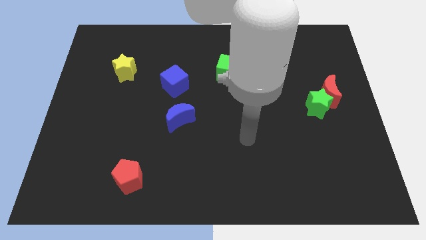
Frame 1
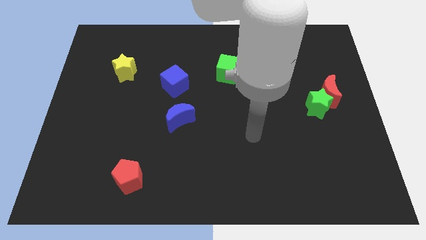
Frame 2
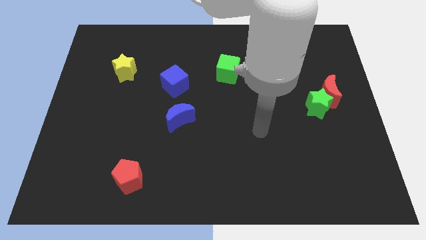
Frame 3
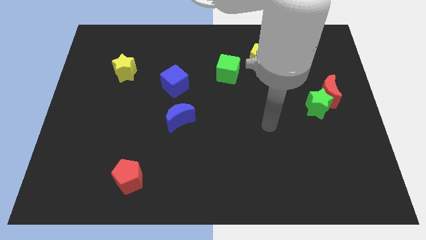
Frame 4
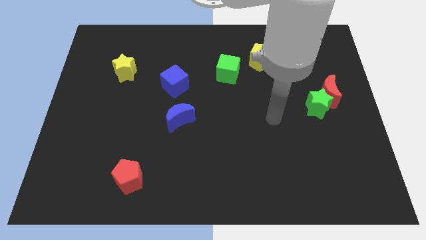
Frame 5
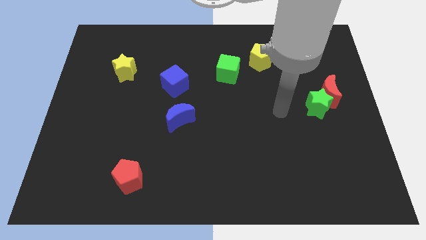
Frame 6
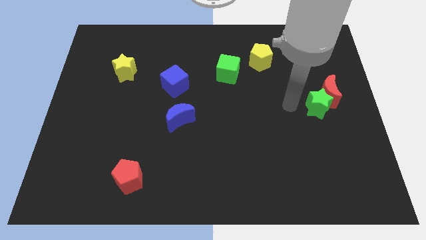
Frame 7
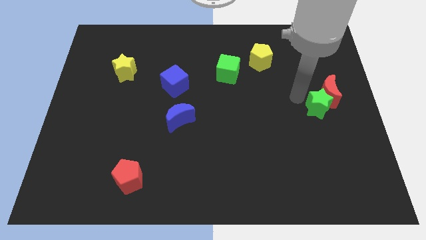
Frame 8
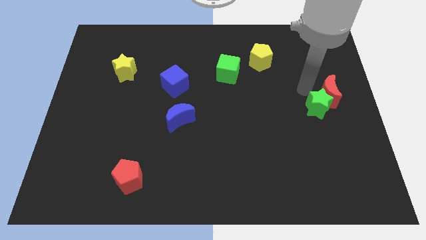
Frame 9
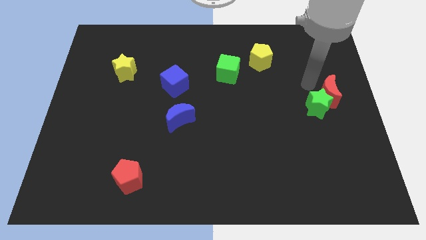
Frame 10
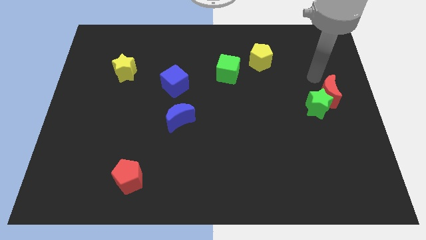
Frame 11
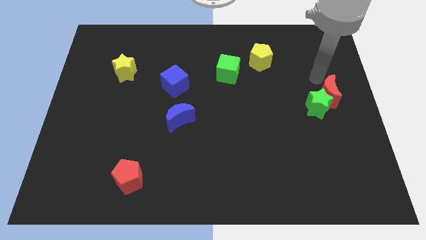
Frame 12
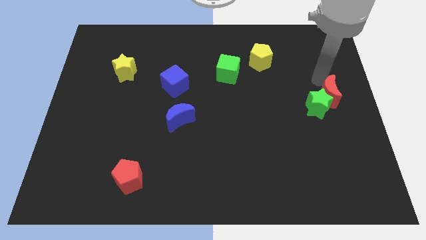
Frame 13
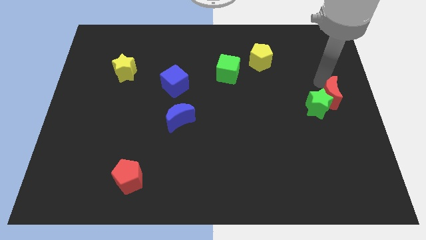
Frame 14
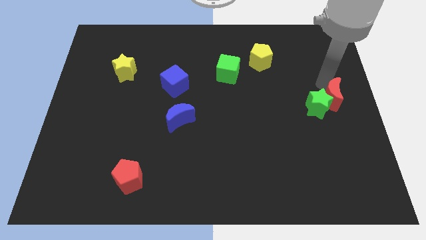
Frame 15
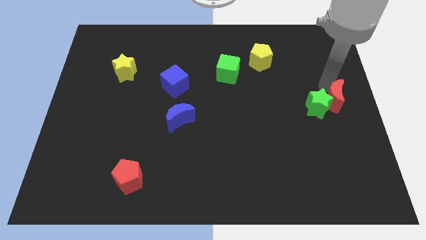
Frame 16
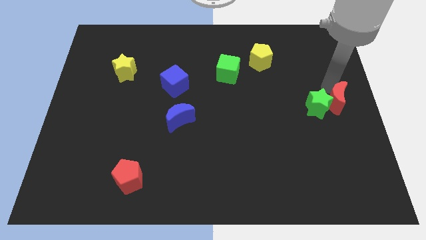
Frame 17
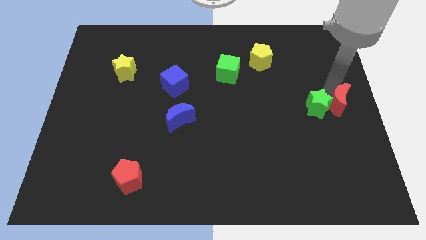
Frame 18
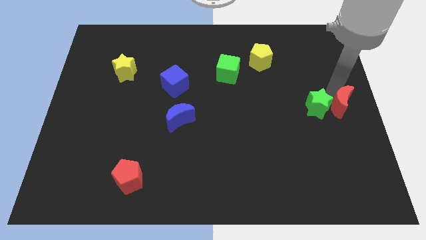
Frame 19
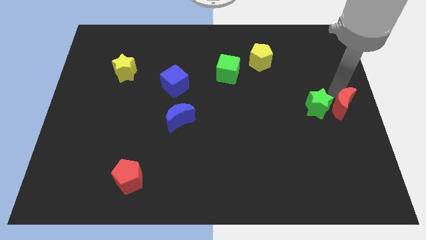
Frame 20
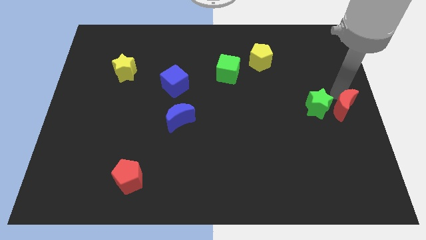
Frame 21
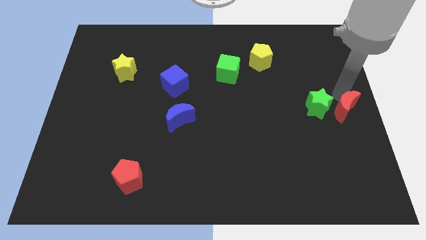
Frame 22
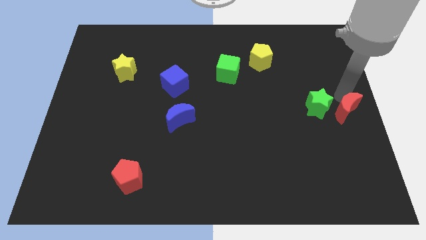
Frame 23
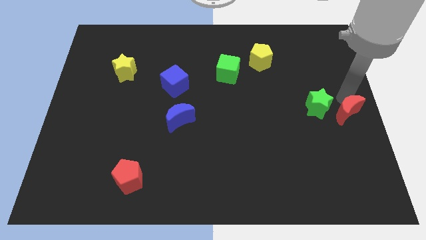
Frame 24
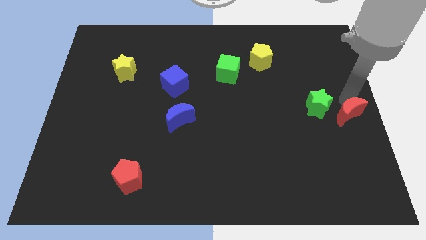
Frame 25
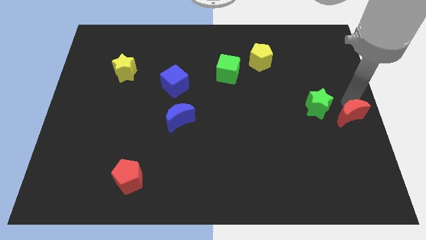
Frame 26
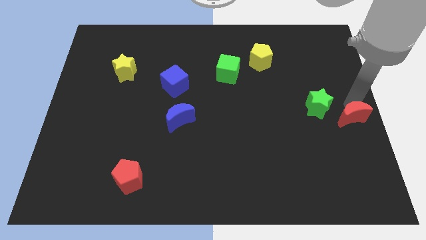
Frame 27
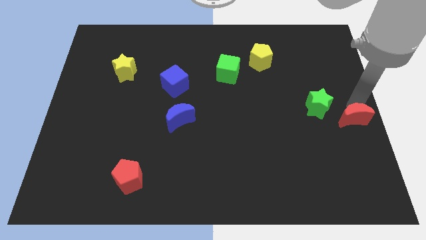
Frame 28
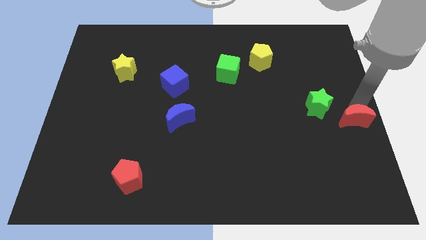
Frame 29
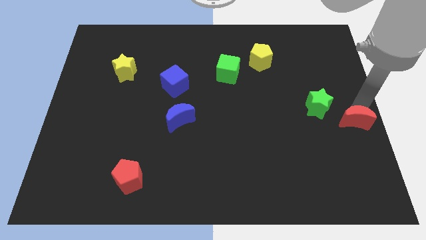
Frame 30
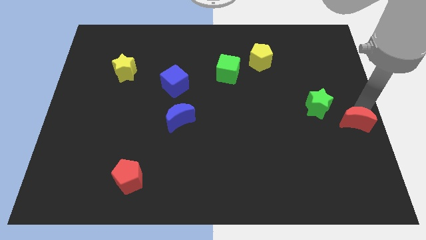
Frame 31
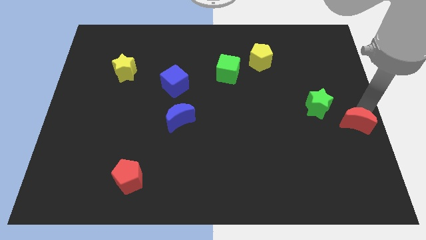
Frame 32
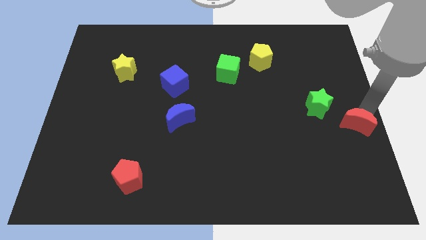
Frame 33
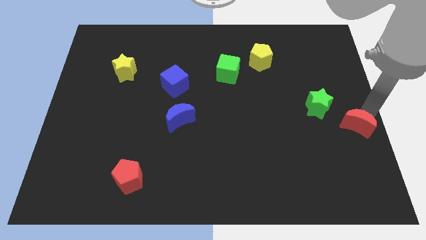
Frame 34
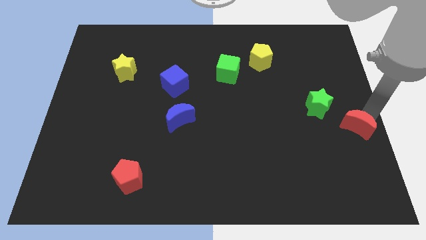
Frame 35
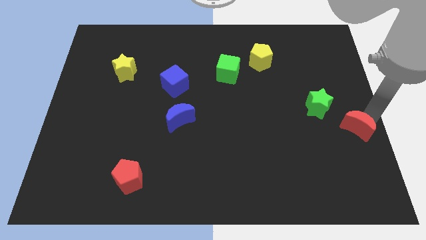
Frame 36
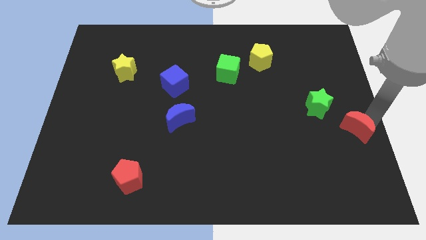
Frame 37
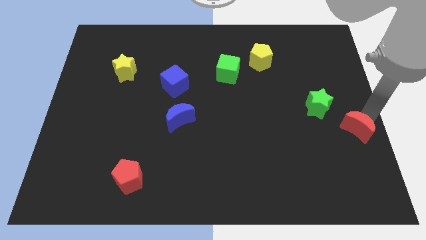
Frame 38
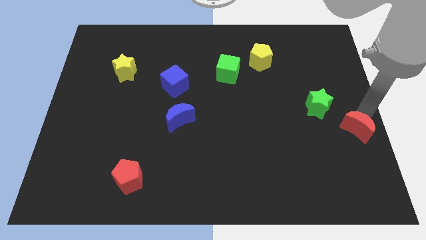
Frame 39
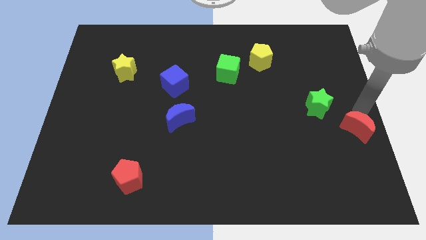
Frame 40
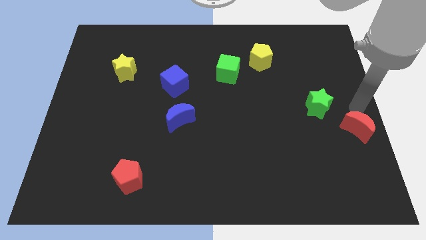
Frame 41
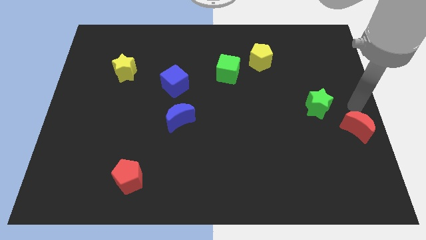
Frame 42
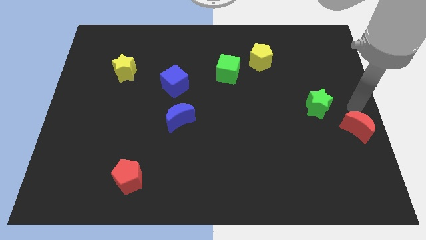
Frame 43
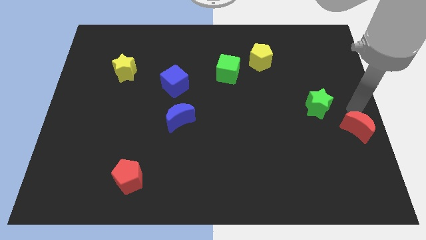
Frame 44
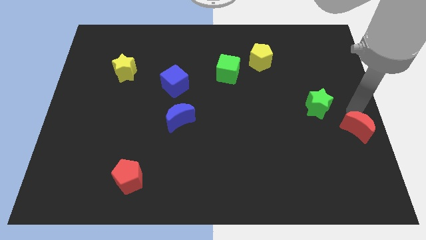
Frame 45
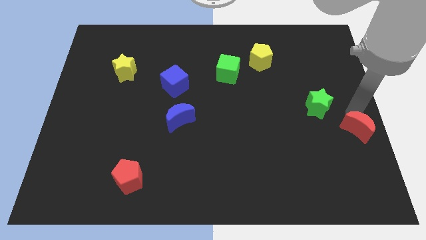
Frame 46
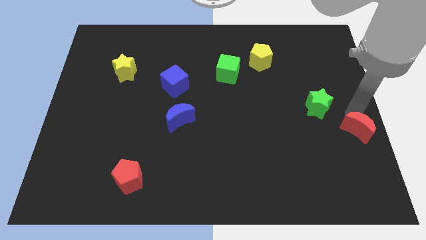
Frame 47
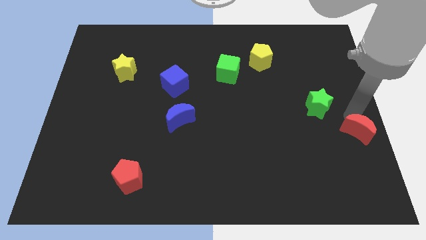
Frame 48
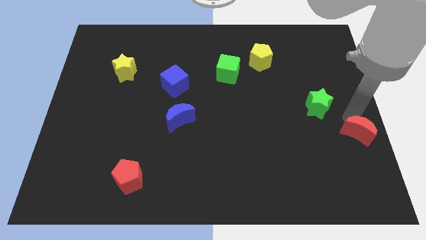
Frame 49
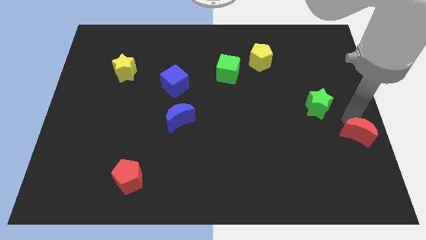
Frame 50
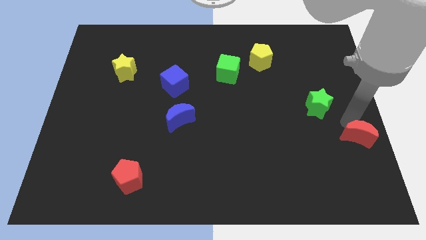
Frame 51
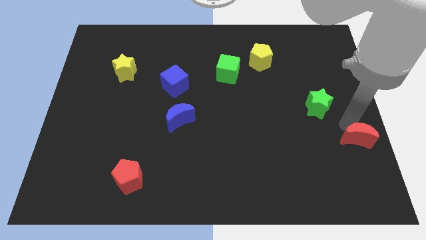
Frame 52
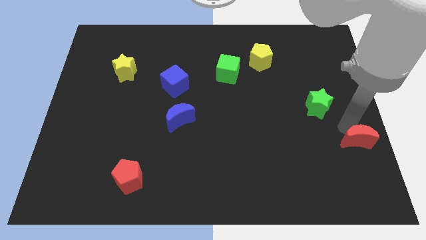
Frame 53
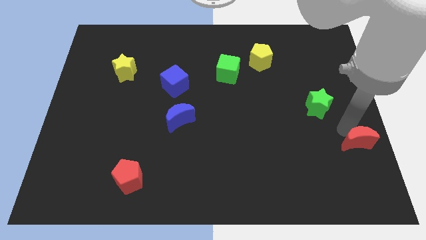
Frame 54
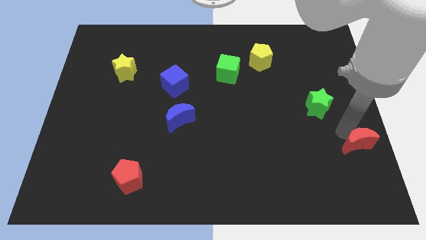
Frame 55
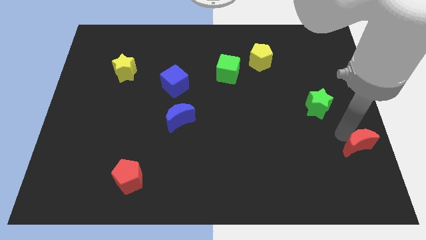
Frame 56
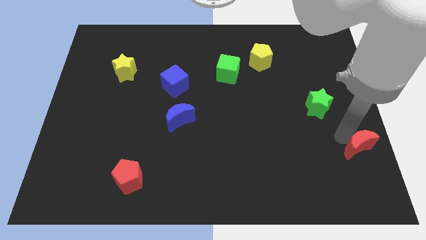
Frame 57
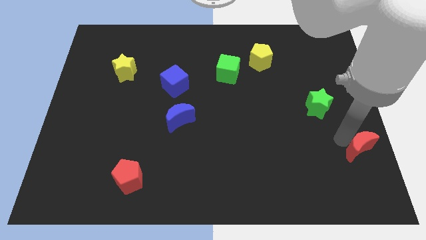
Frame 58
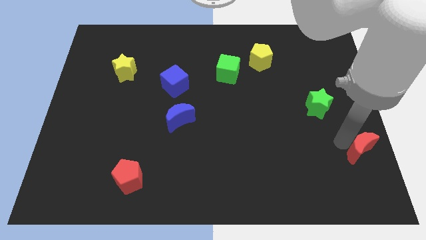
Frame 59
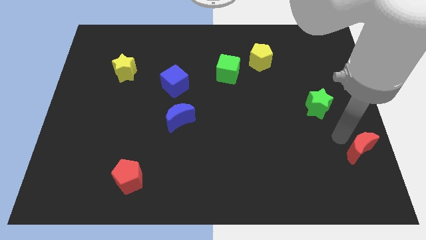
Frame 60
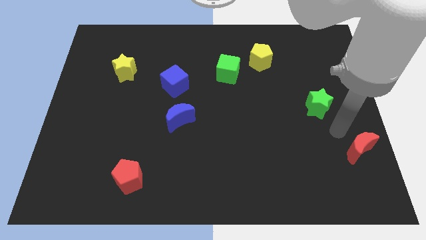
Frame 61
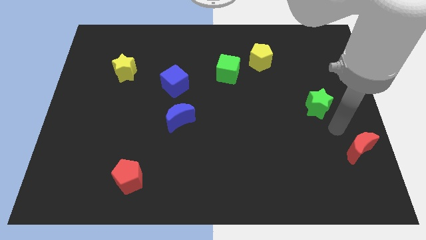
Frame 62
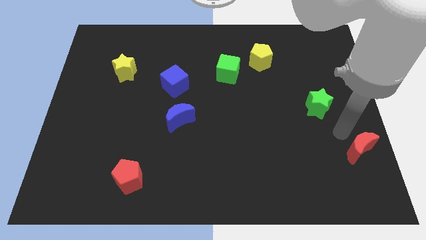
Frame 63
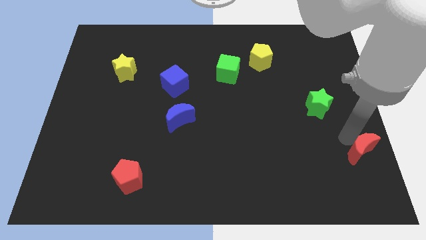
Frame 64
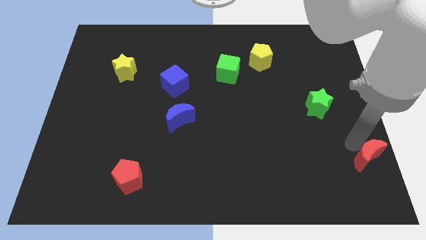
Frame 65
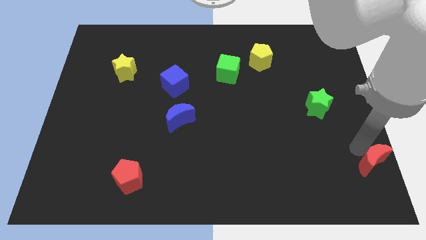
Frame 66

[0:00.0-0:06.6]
put the red moon to the bottom right corner
